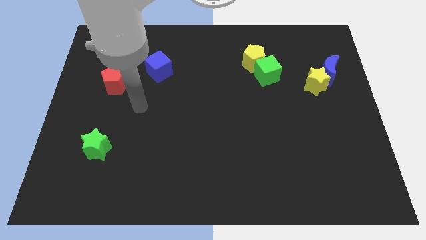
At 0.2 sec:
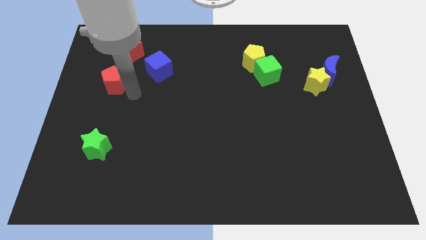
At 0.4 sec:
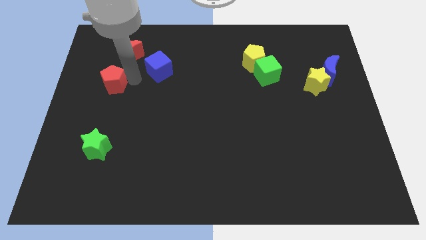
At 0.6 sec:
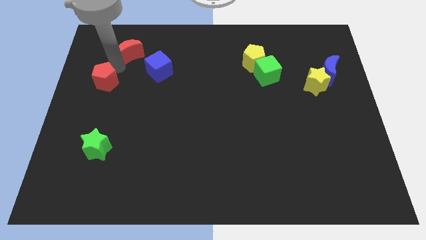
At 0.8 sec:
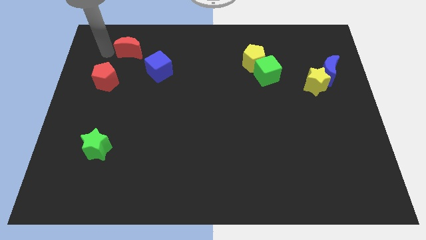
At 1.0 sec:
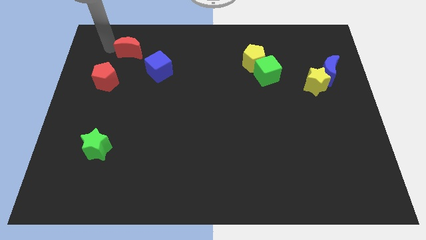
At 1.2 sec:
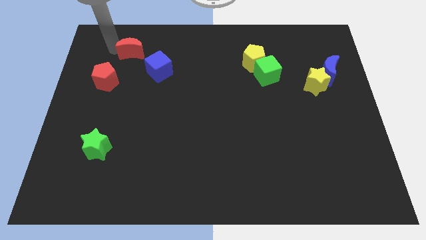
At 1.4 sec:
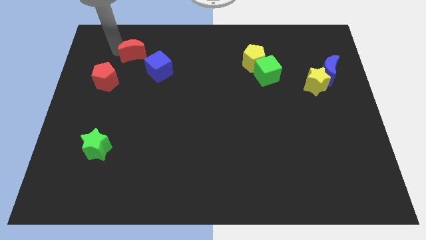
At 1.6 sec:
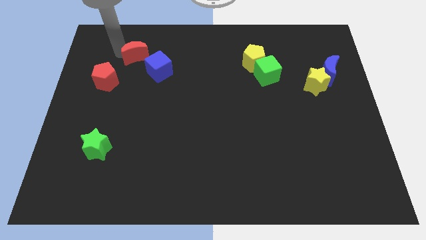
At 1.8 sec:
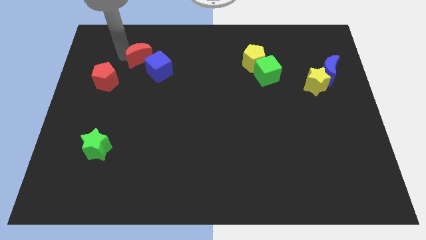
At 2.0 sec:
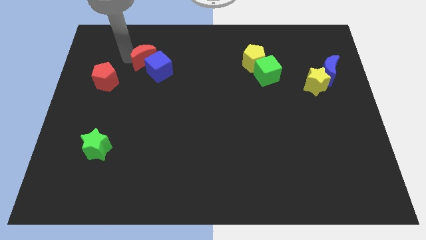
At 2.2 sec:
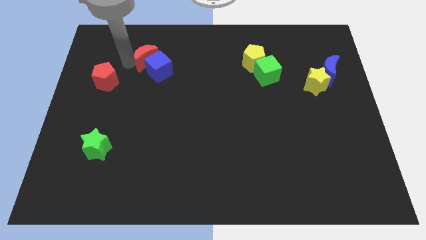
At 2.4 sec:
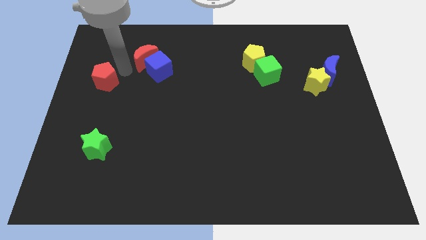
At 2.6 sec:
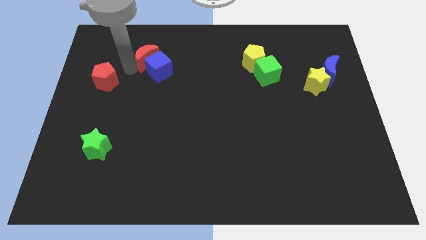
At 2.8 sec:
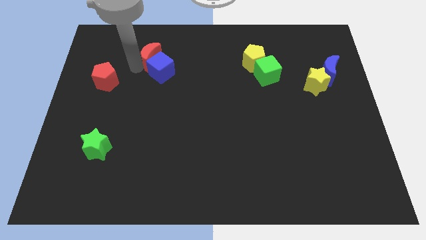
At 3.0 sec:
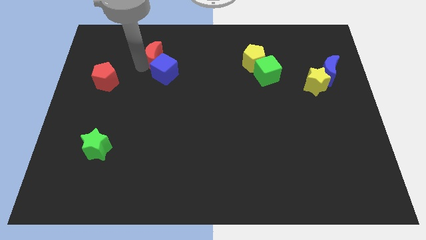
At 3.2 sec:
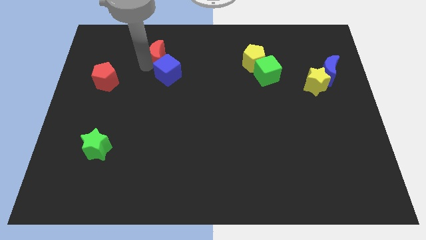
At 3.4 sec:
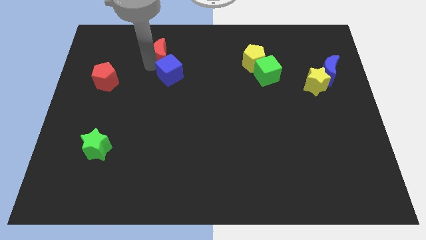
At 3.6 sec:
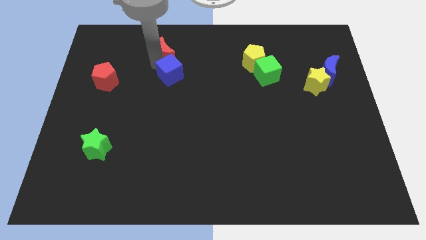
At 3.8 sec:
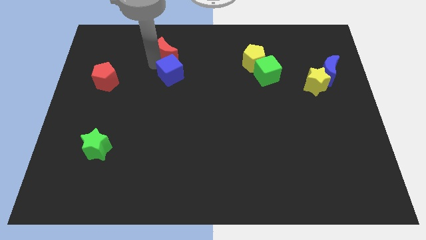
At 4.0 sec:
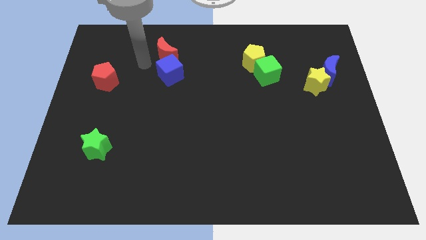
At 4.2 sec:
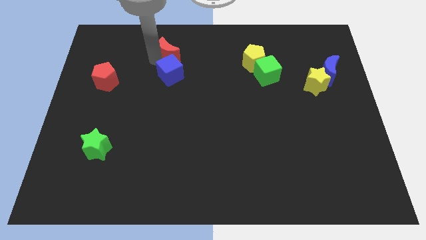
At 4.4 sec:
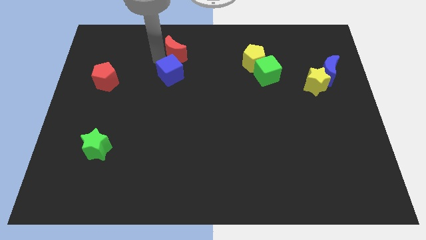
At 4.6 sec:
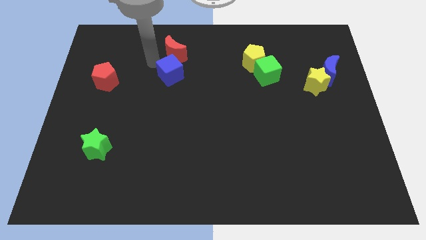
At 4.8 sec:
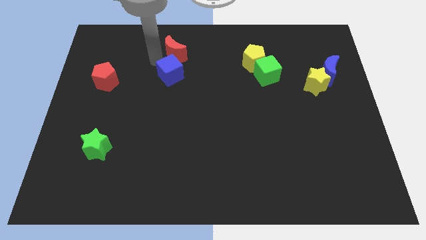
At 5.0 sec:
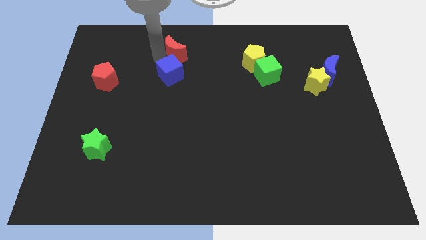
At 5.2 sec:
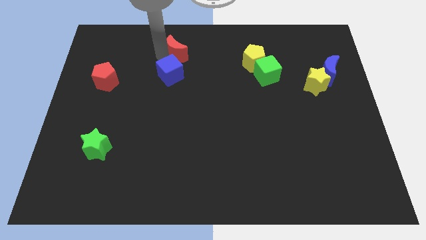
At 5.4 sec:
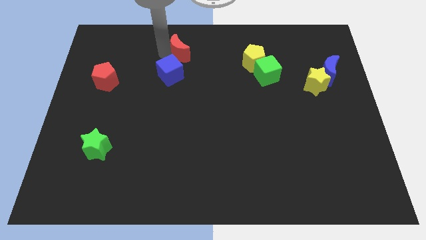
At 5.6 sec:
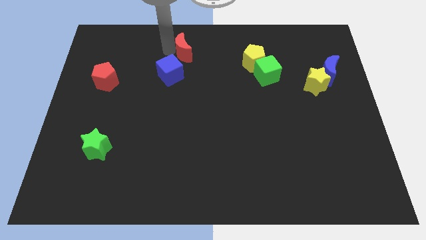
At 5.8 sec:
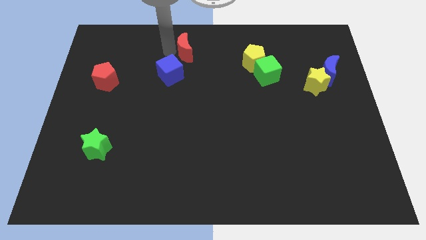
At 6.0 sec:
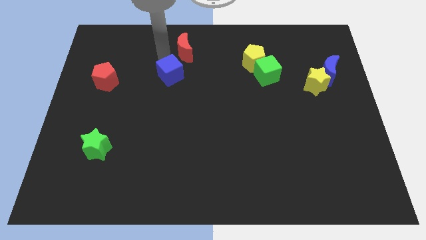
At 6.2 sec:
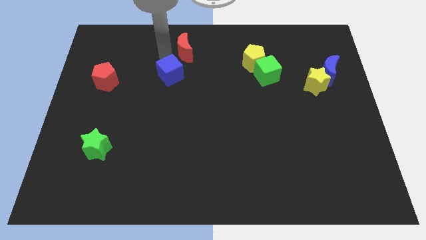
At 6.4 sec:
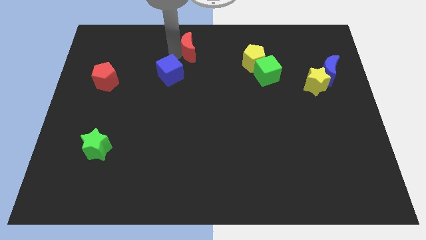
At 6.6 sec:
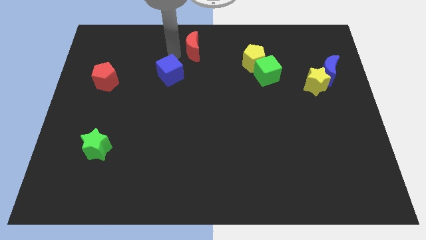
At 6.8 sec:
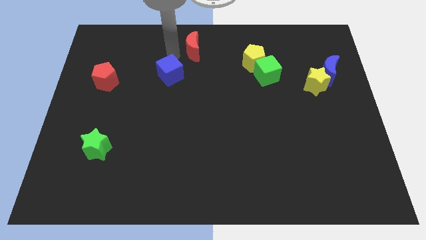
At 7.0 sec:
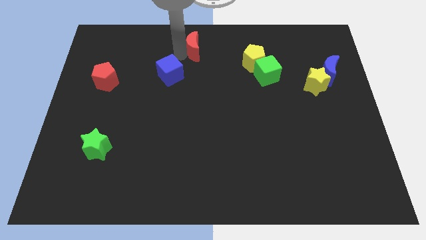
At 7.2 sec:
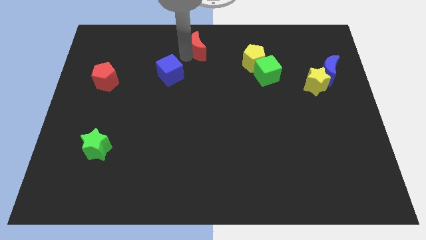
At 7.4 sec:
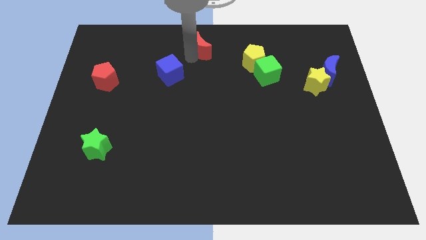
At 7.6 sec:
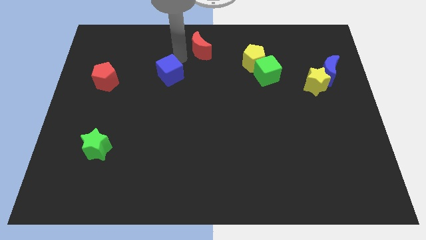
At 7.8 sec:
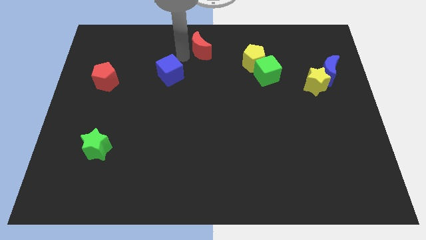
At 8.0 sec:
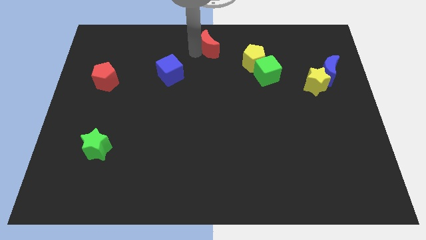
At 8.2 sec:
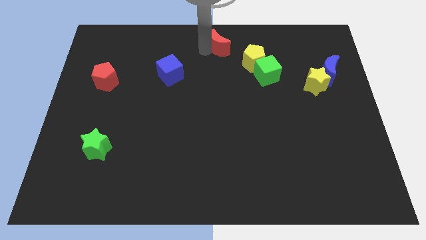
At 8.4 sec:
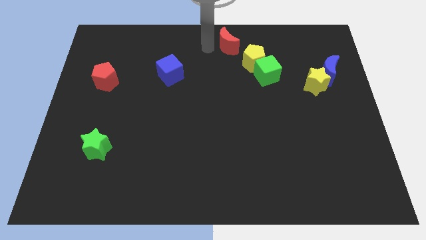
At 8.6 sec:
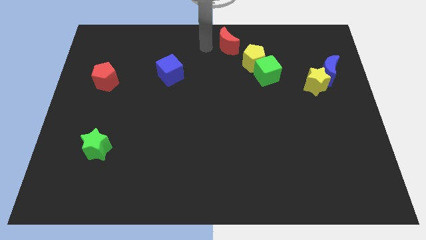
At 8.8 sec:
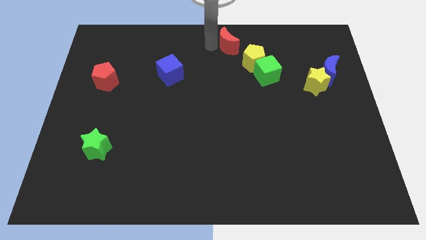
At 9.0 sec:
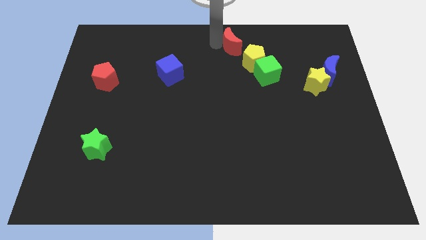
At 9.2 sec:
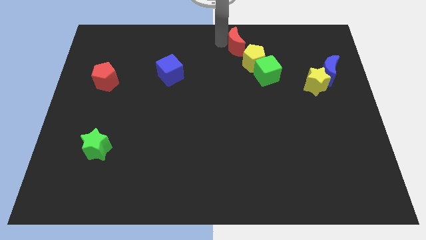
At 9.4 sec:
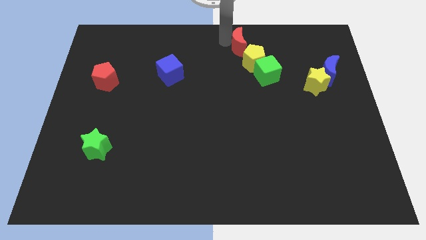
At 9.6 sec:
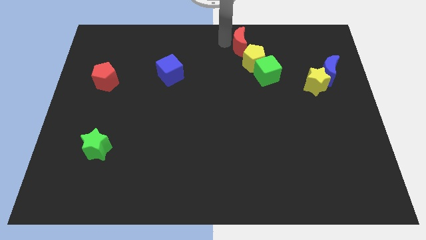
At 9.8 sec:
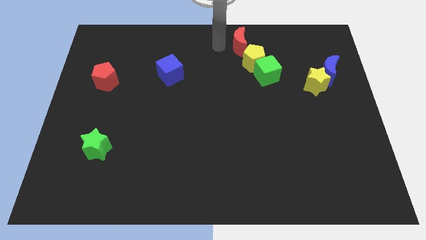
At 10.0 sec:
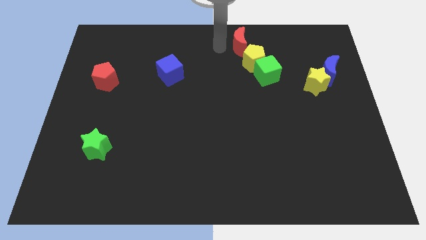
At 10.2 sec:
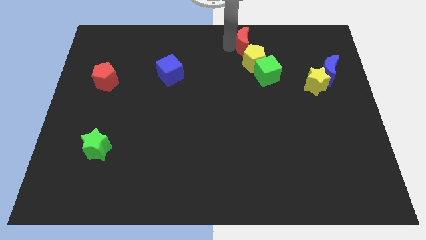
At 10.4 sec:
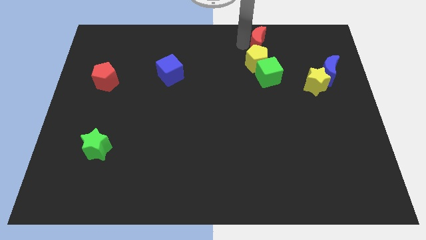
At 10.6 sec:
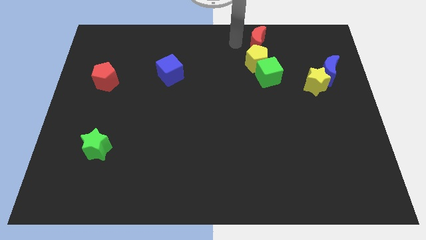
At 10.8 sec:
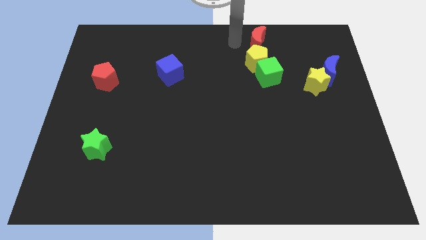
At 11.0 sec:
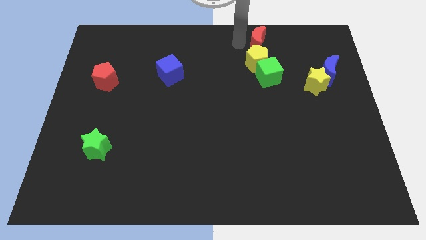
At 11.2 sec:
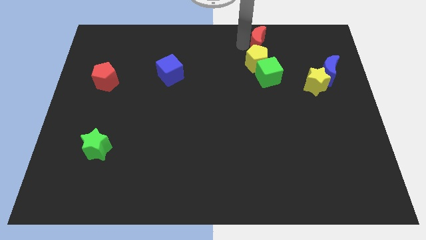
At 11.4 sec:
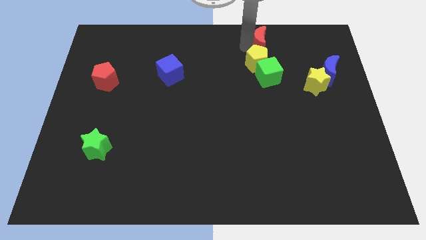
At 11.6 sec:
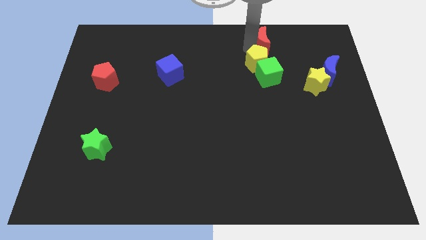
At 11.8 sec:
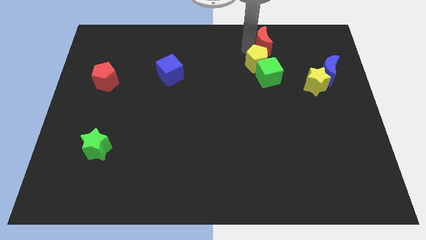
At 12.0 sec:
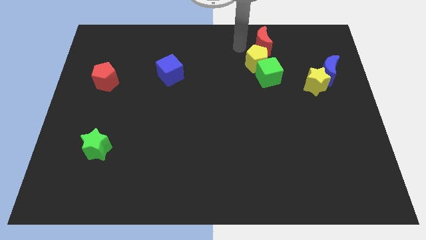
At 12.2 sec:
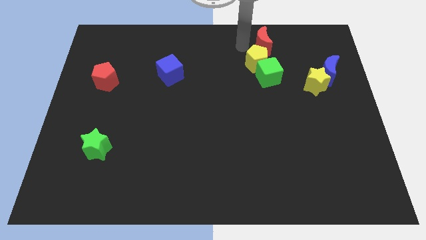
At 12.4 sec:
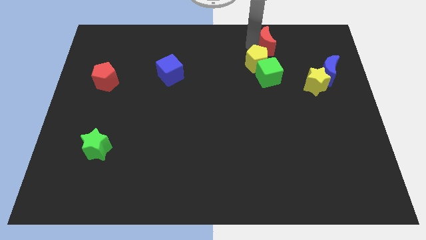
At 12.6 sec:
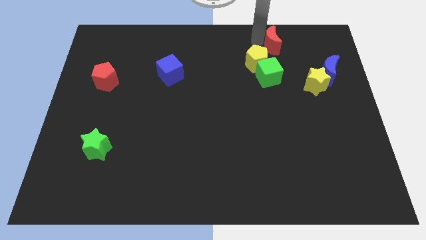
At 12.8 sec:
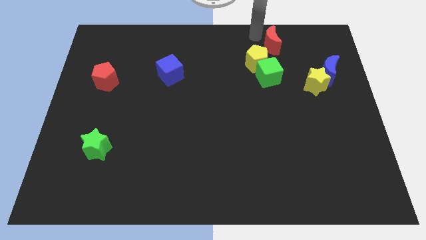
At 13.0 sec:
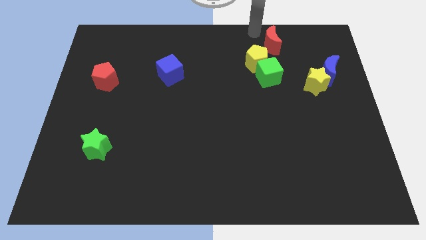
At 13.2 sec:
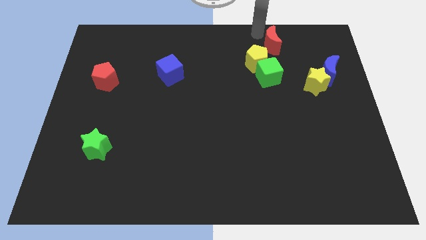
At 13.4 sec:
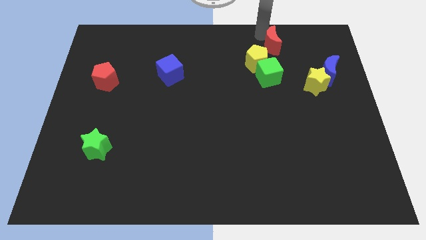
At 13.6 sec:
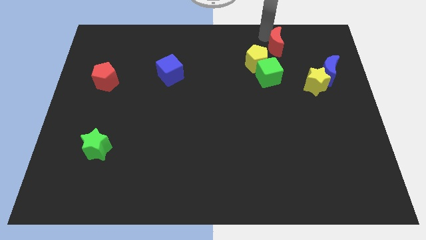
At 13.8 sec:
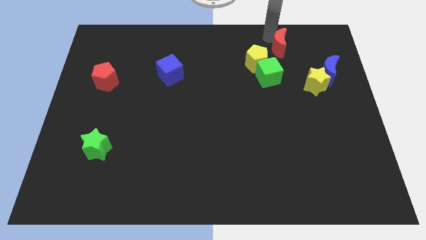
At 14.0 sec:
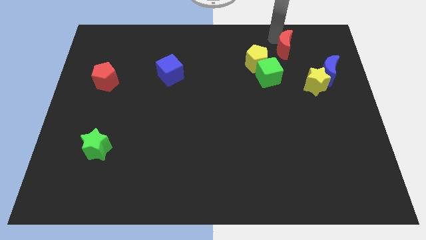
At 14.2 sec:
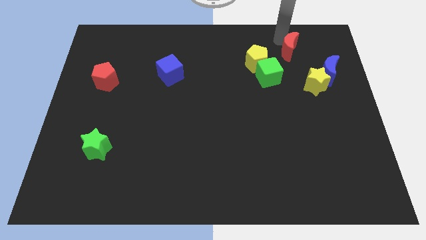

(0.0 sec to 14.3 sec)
move the red moon to the right side of the yellow pentagon
